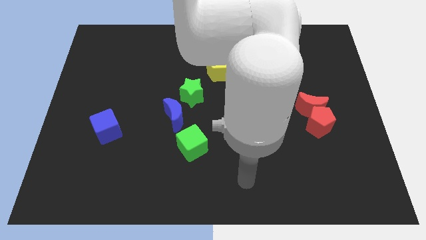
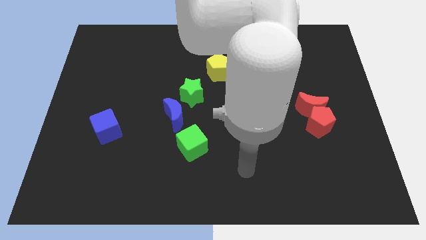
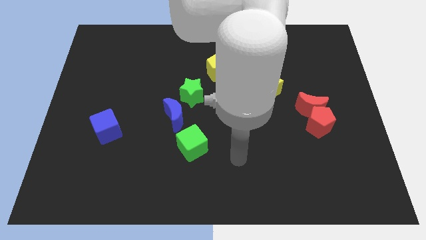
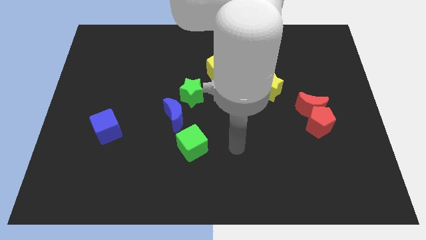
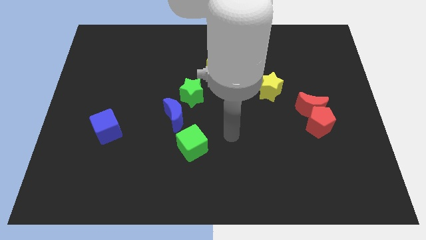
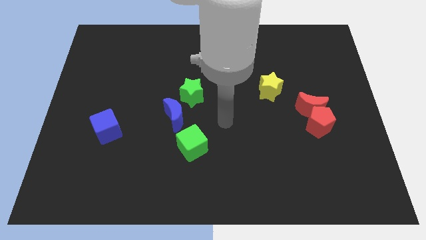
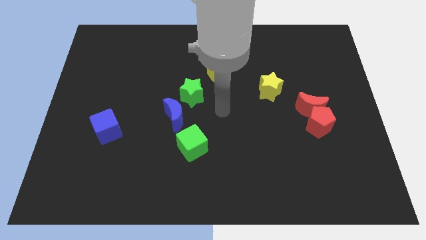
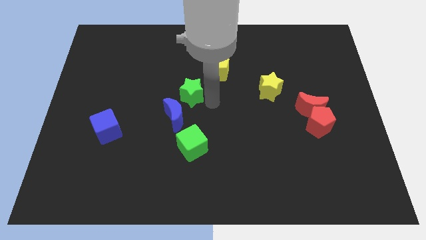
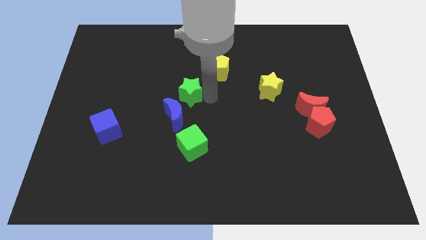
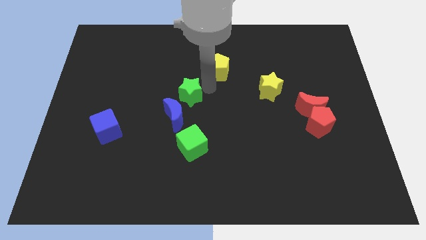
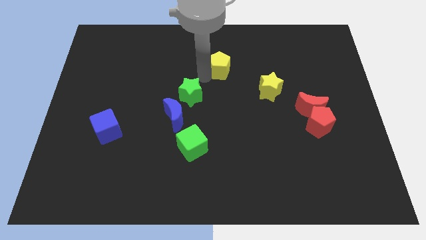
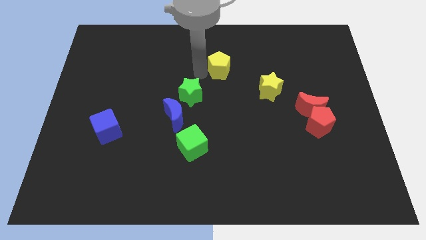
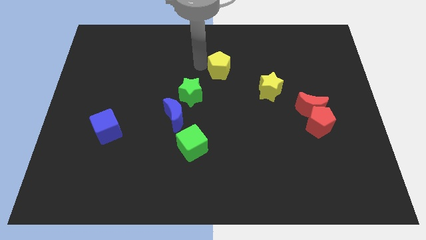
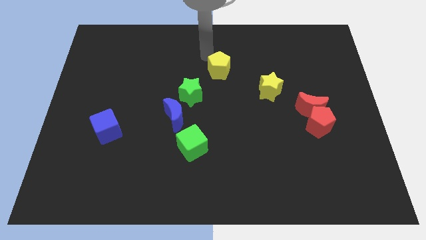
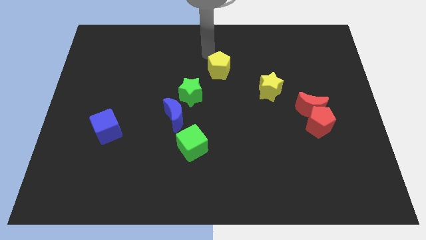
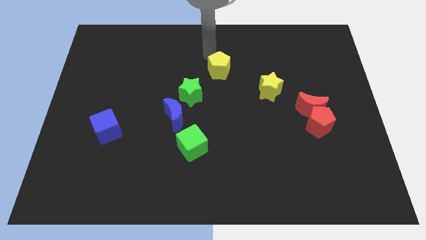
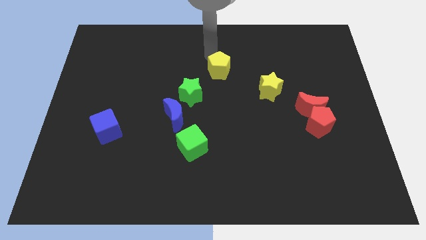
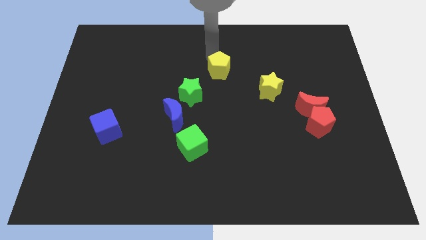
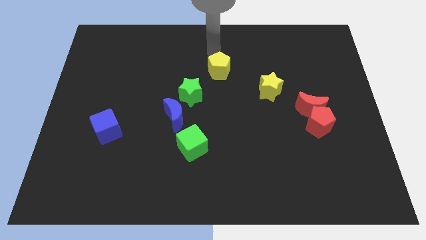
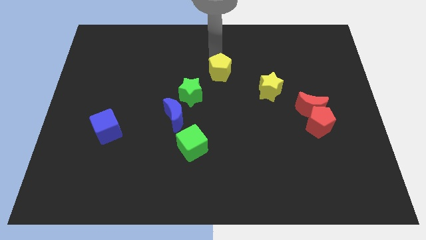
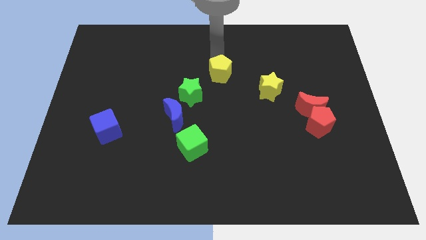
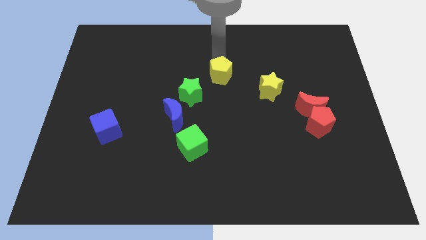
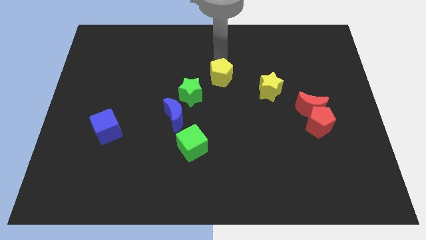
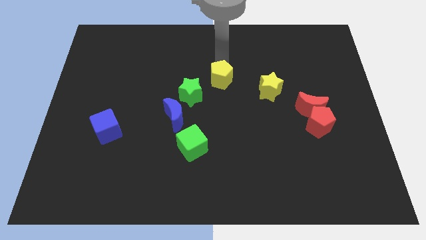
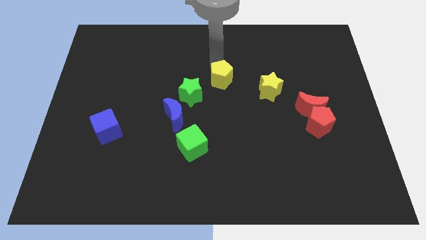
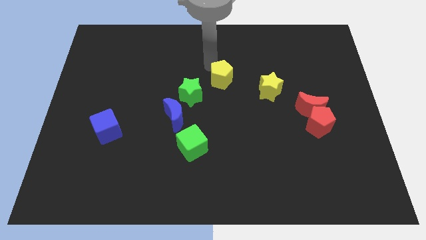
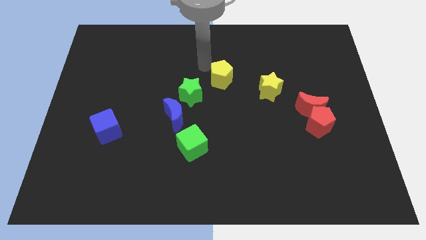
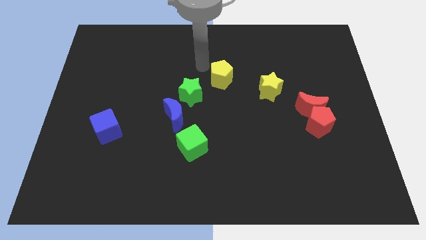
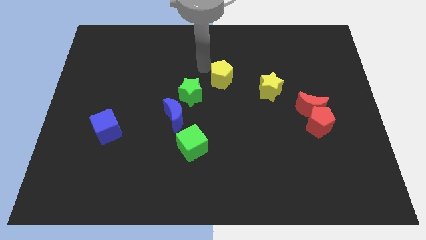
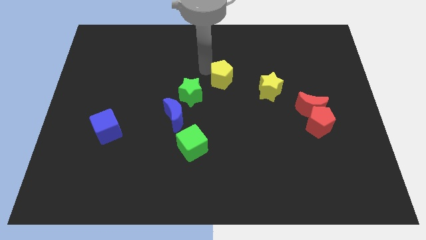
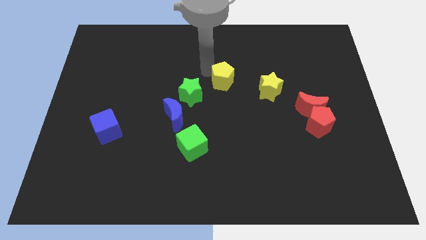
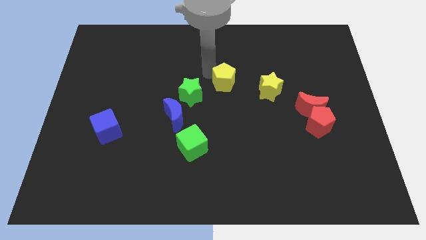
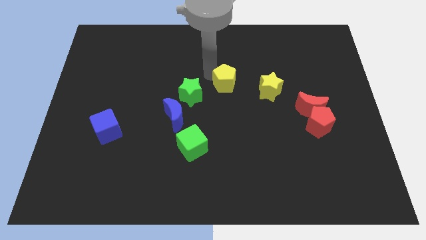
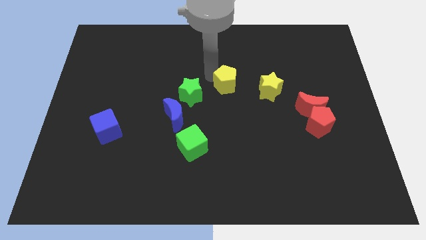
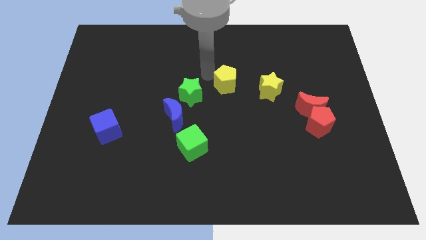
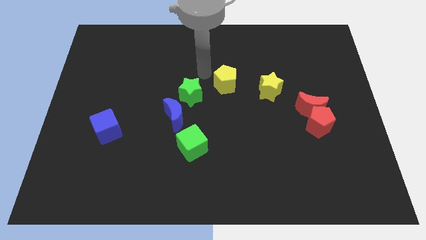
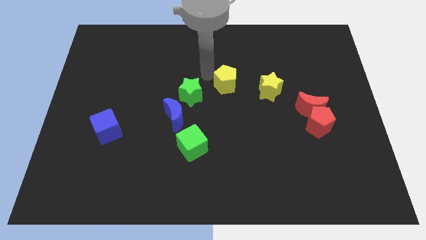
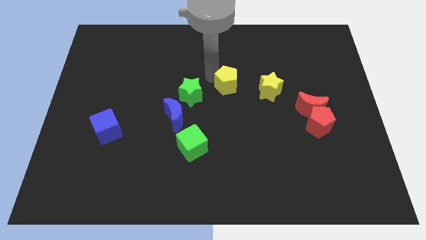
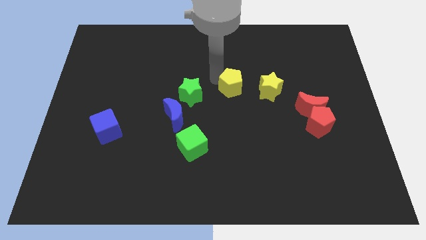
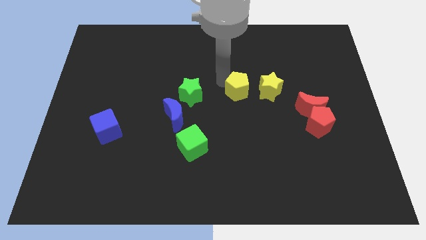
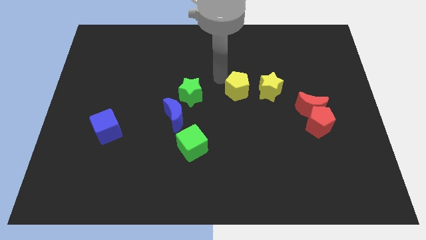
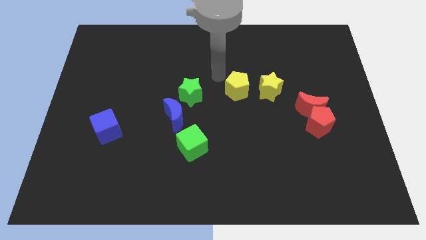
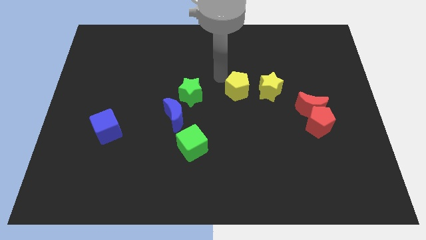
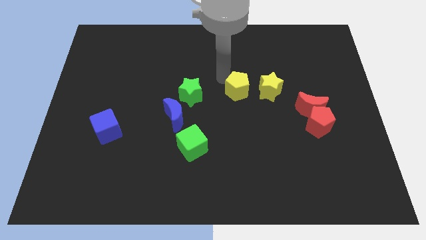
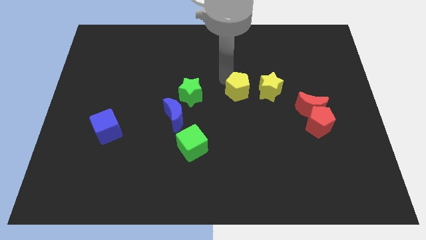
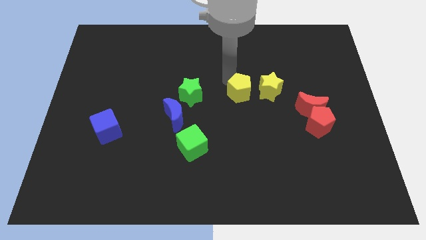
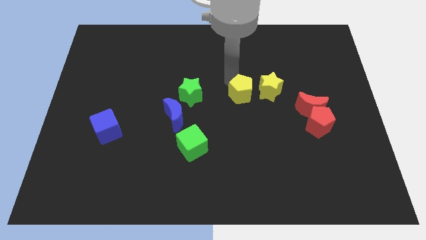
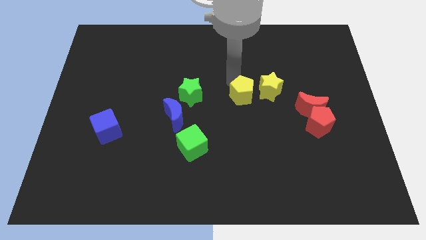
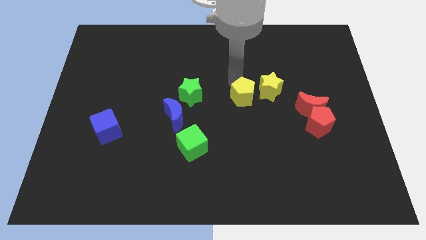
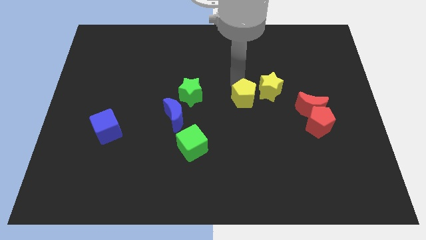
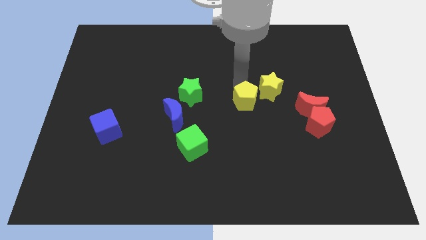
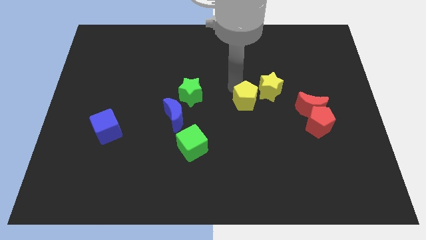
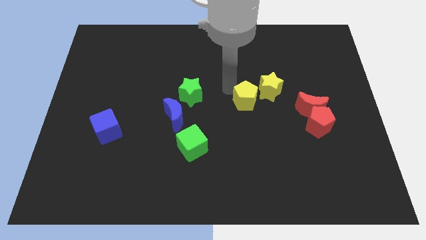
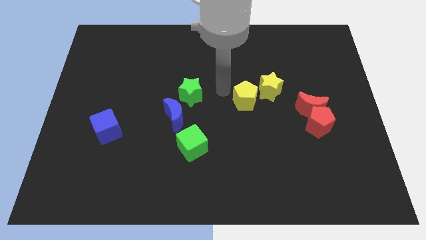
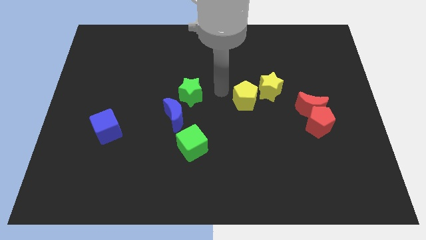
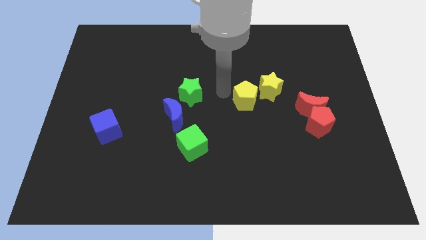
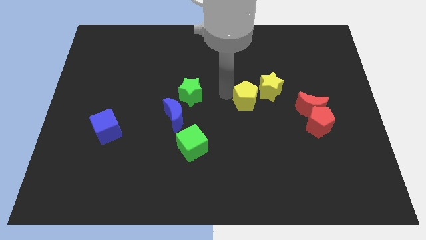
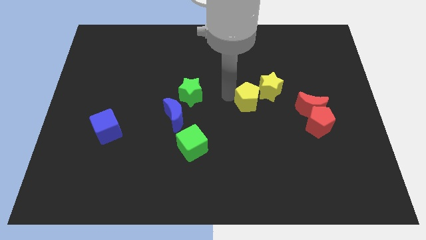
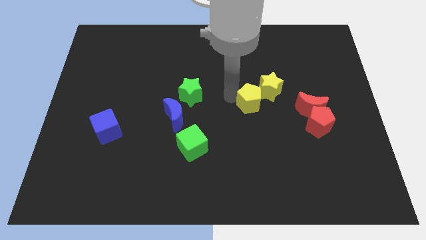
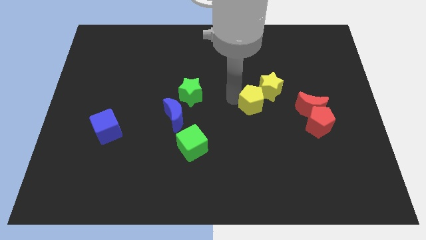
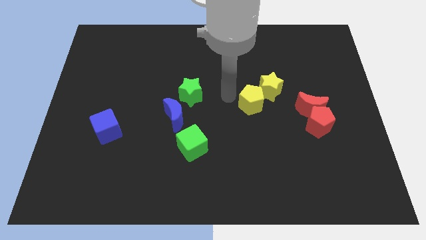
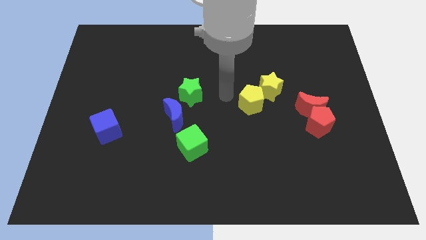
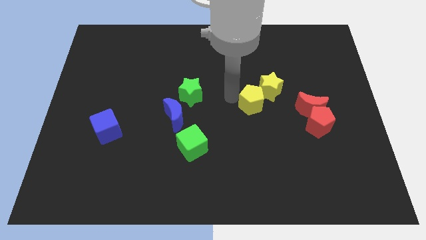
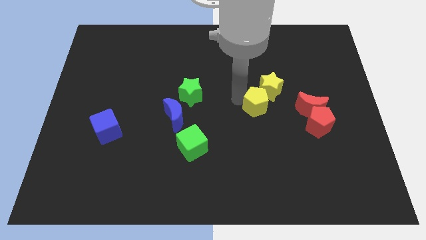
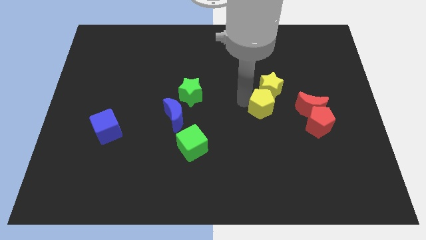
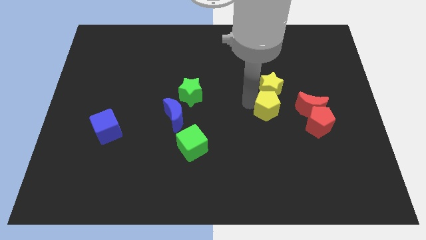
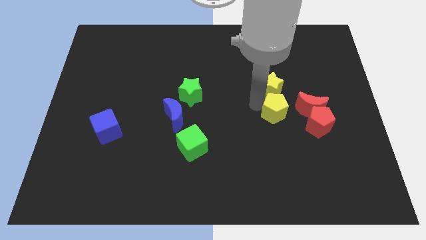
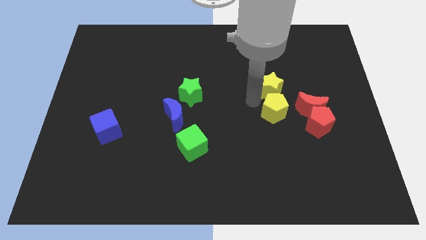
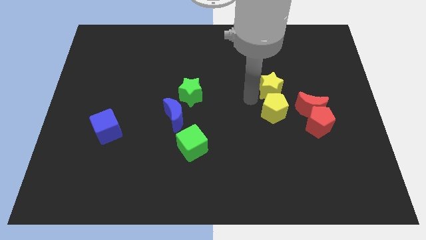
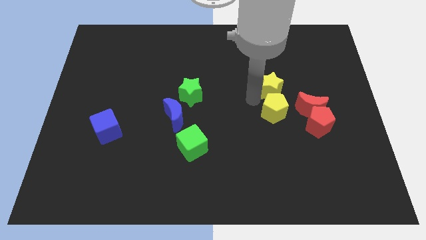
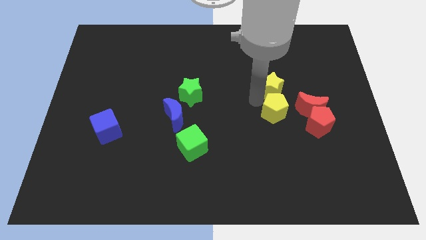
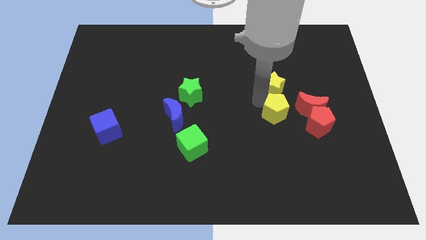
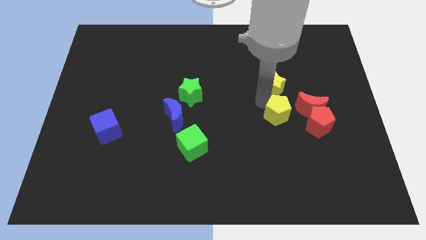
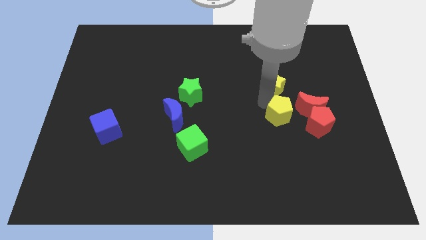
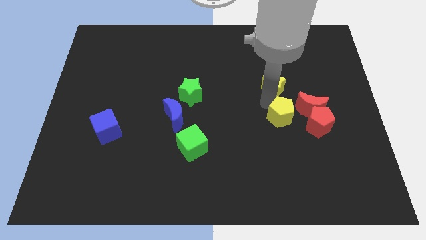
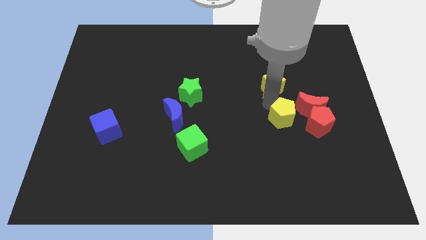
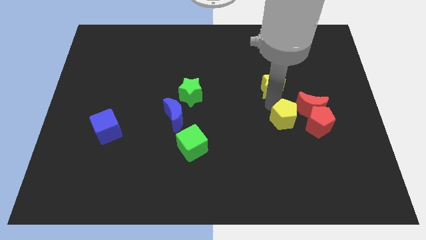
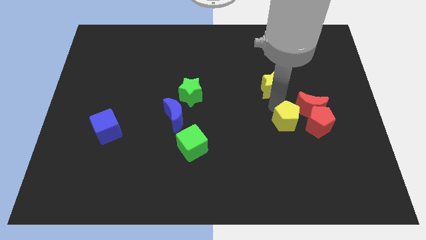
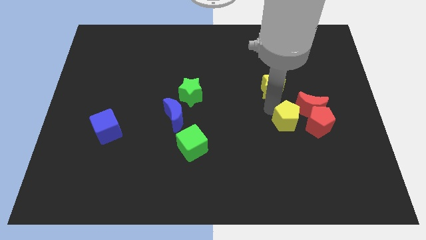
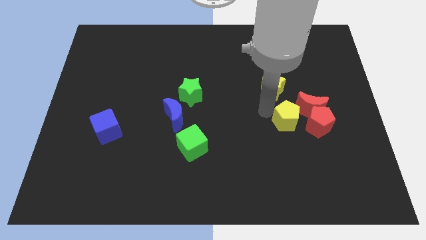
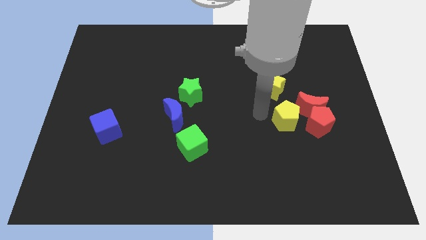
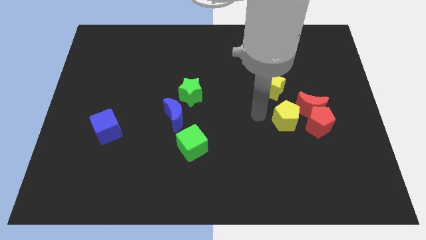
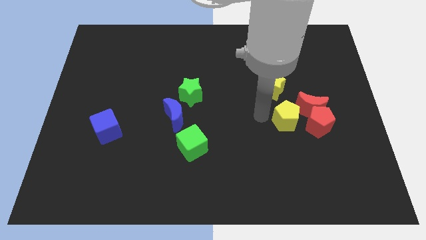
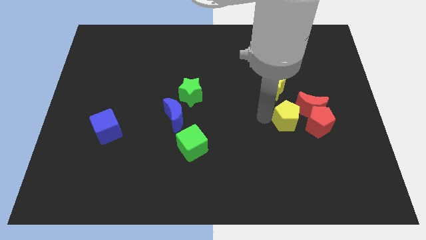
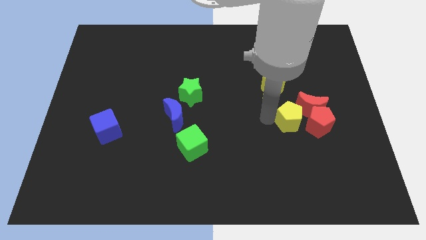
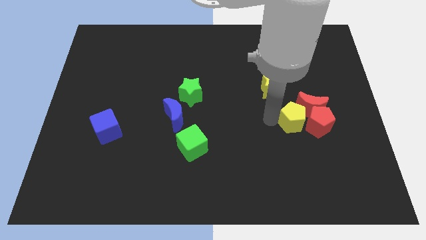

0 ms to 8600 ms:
slide the yellow pentagon next to the red pentagon
